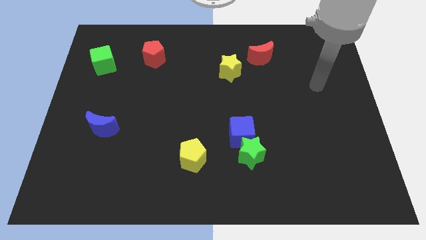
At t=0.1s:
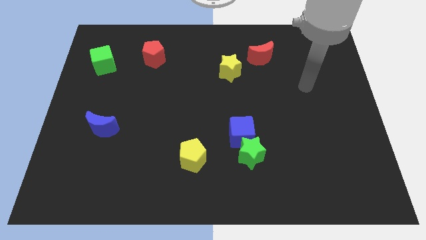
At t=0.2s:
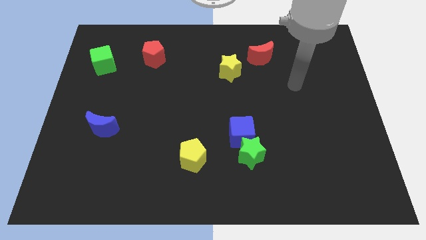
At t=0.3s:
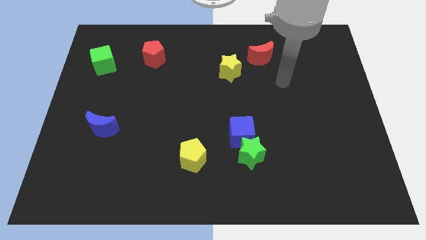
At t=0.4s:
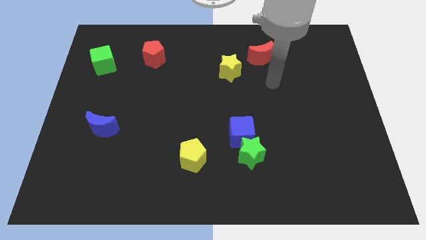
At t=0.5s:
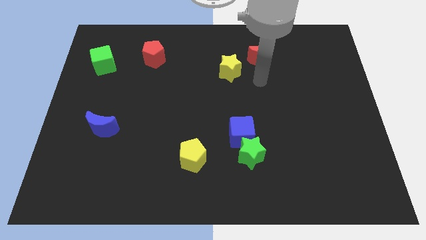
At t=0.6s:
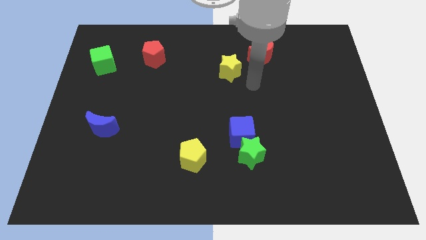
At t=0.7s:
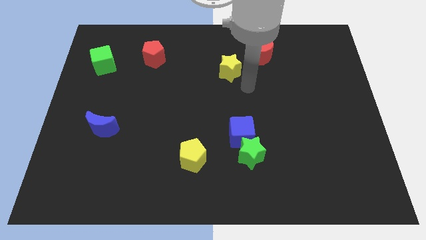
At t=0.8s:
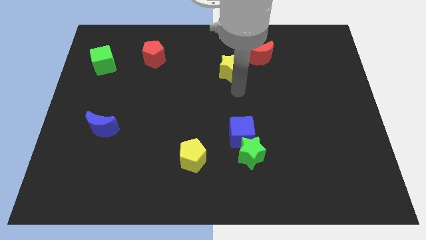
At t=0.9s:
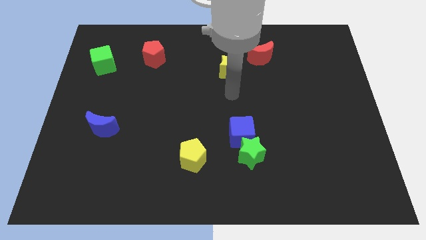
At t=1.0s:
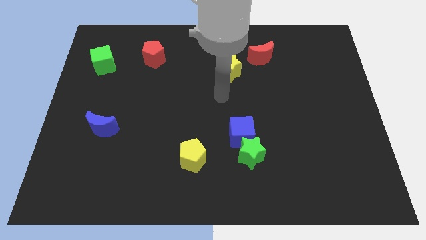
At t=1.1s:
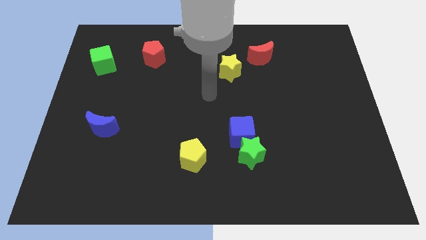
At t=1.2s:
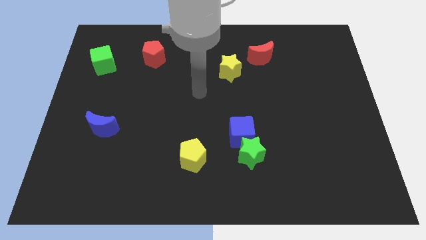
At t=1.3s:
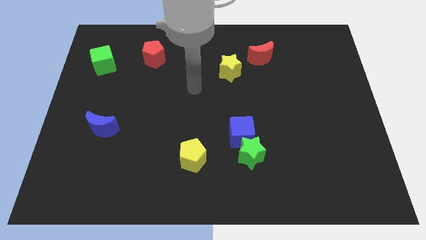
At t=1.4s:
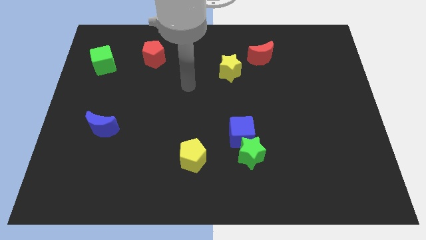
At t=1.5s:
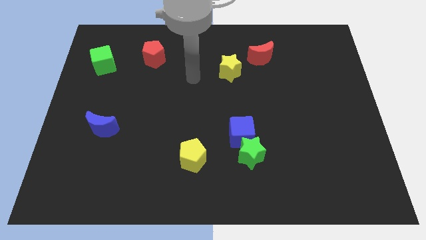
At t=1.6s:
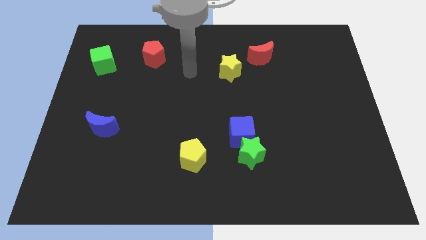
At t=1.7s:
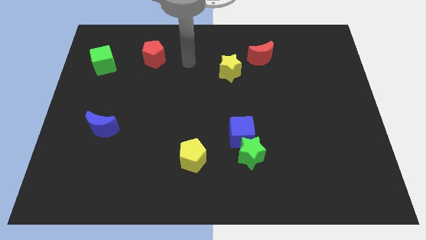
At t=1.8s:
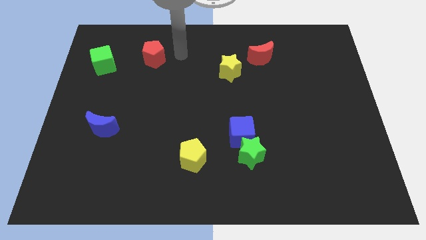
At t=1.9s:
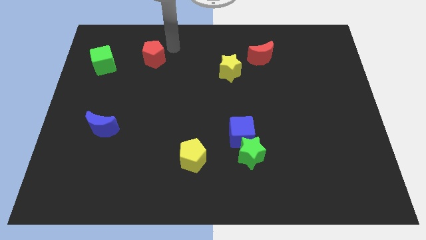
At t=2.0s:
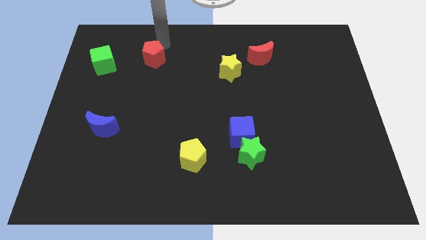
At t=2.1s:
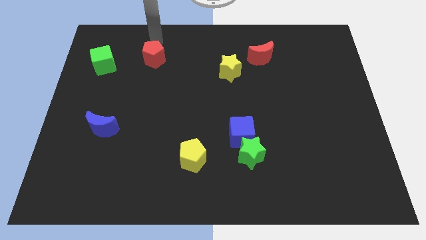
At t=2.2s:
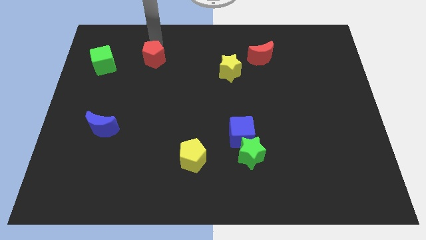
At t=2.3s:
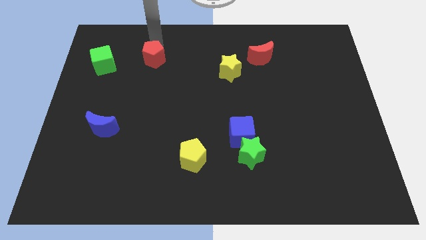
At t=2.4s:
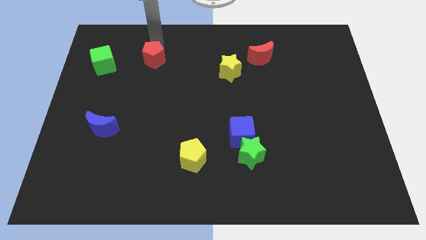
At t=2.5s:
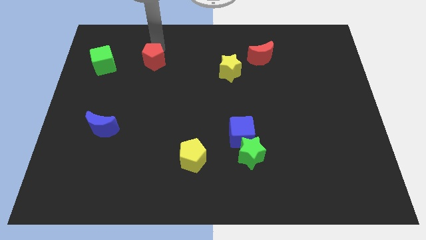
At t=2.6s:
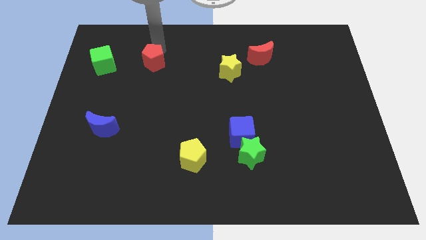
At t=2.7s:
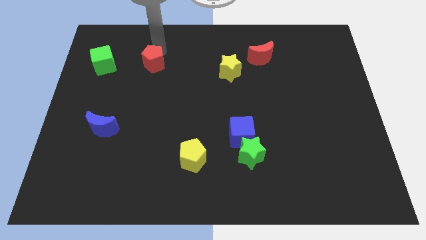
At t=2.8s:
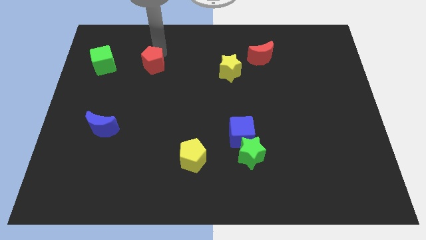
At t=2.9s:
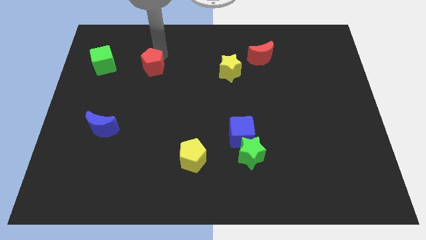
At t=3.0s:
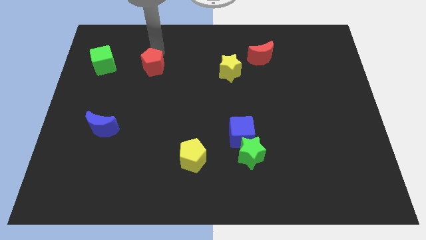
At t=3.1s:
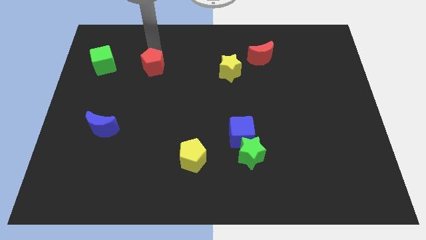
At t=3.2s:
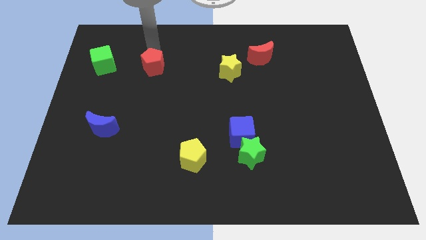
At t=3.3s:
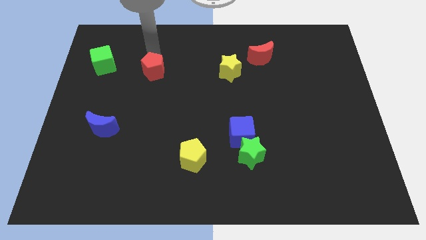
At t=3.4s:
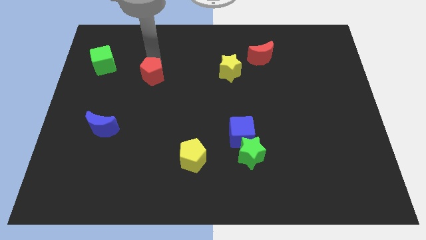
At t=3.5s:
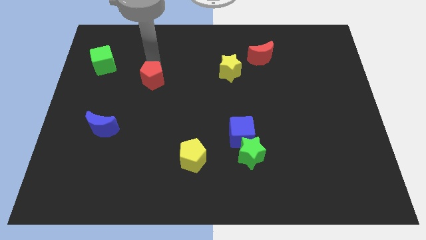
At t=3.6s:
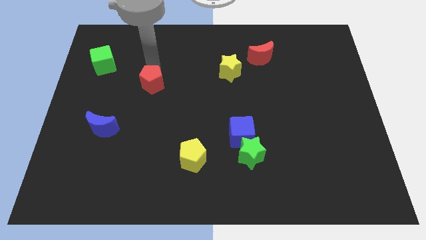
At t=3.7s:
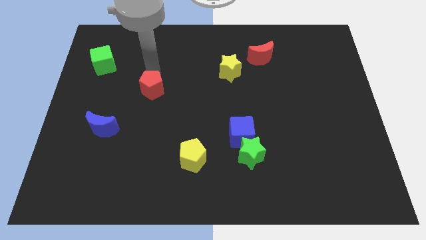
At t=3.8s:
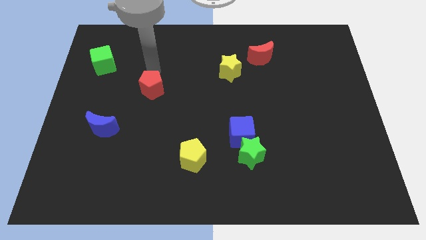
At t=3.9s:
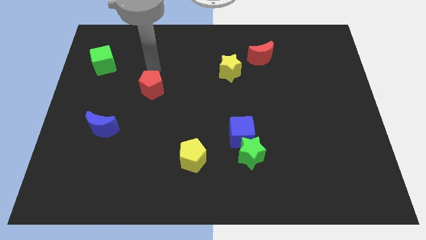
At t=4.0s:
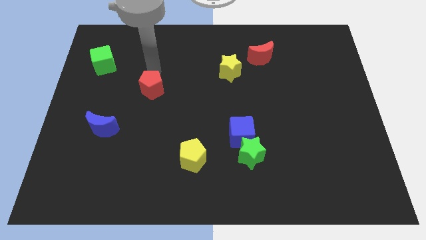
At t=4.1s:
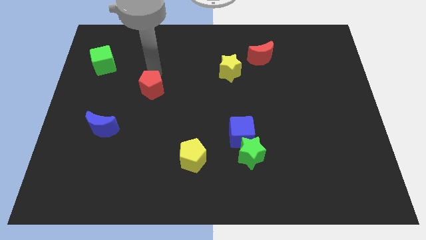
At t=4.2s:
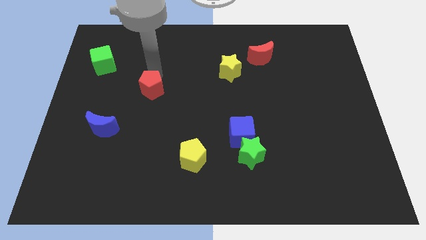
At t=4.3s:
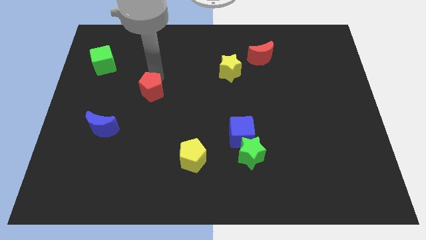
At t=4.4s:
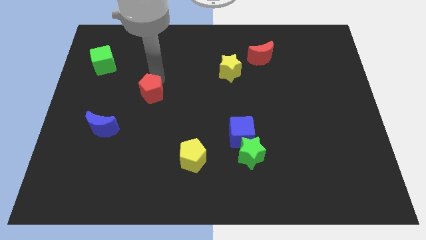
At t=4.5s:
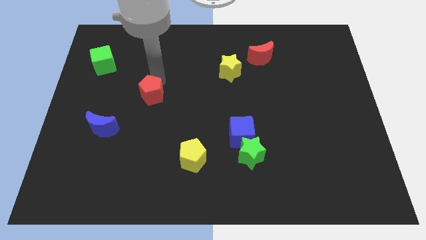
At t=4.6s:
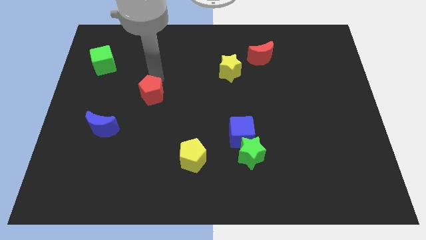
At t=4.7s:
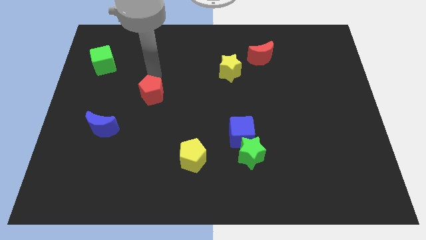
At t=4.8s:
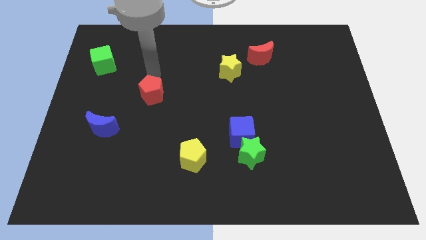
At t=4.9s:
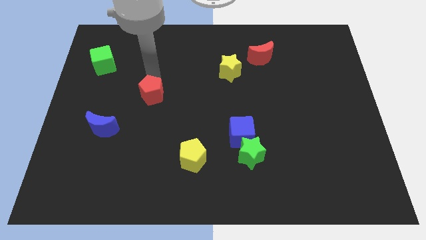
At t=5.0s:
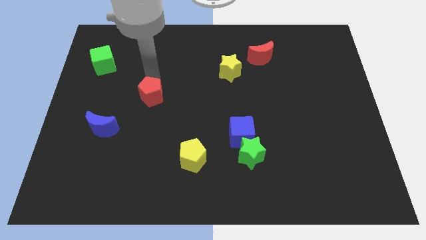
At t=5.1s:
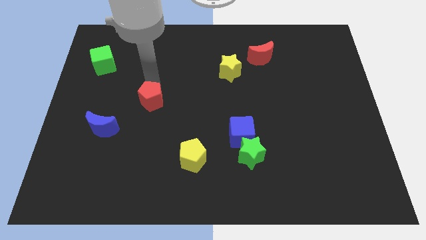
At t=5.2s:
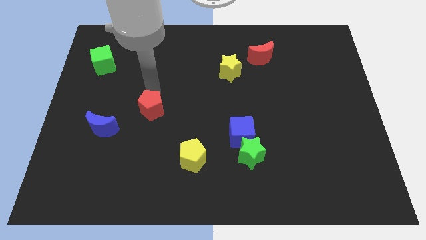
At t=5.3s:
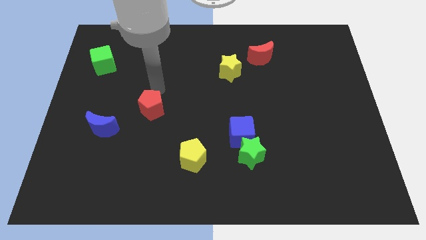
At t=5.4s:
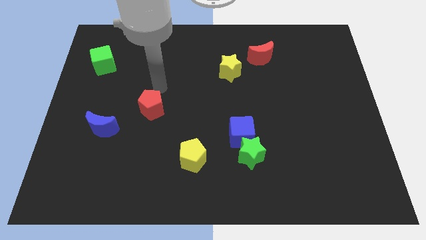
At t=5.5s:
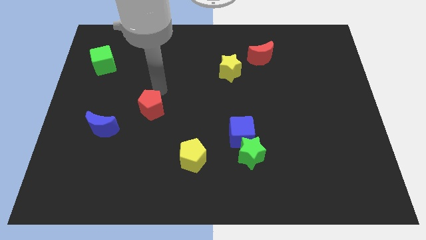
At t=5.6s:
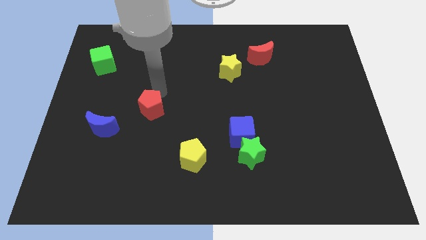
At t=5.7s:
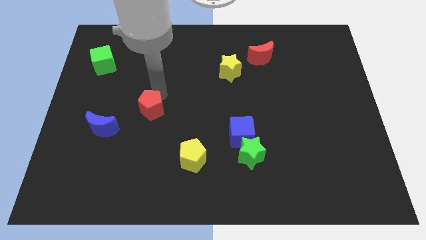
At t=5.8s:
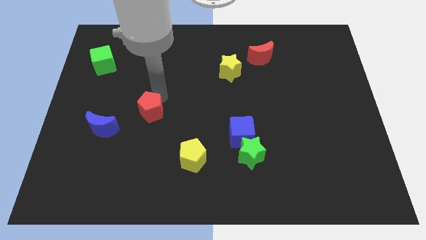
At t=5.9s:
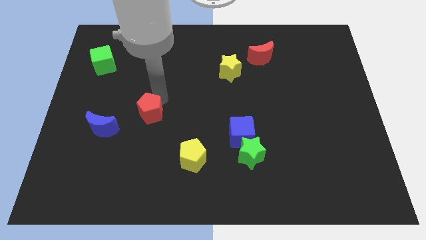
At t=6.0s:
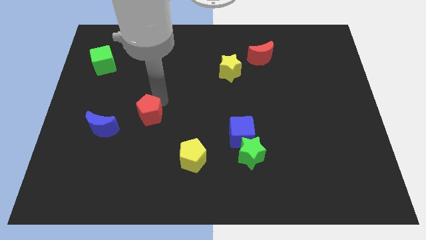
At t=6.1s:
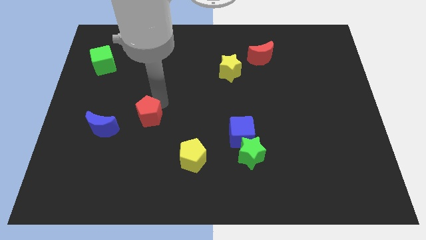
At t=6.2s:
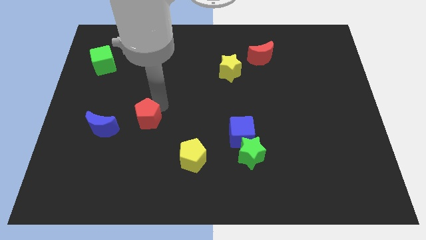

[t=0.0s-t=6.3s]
push the red pentagon downwards

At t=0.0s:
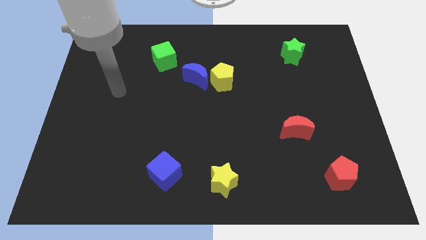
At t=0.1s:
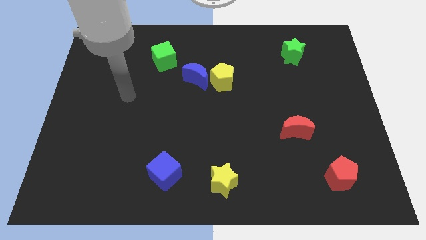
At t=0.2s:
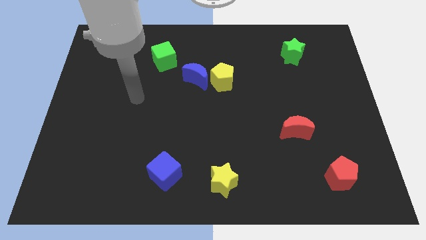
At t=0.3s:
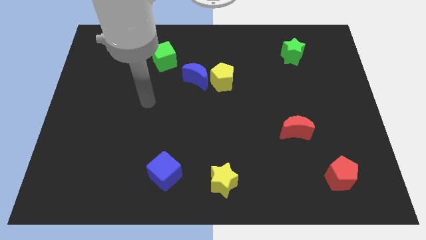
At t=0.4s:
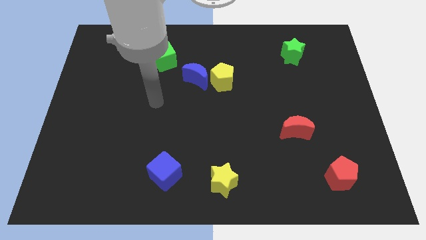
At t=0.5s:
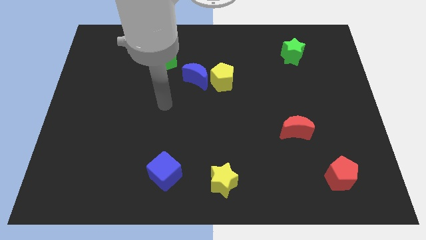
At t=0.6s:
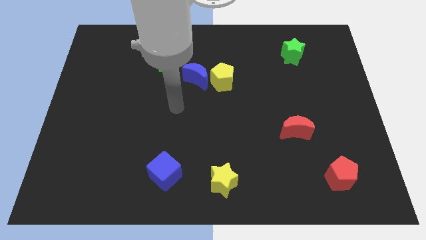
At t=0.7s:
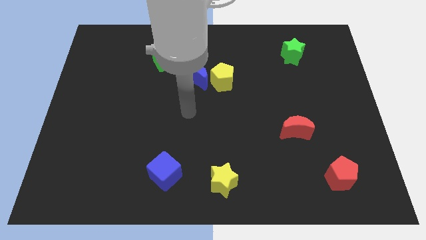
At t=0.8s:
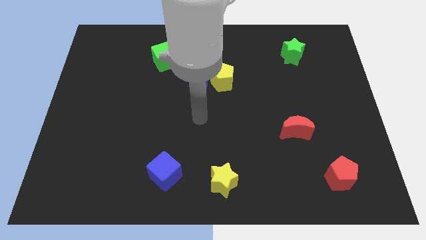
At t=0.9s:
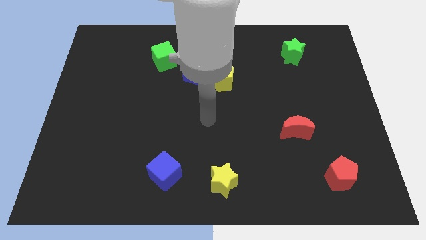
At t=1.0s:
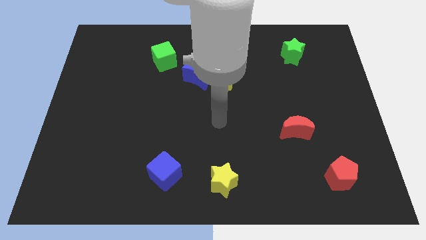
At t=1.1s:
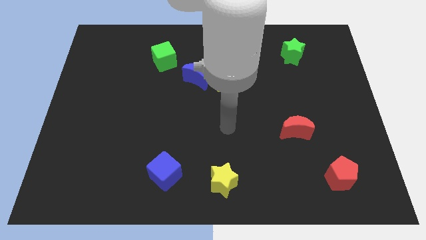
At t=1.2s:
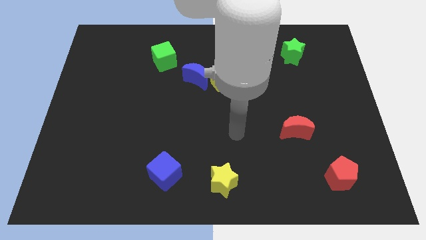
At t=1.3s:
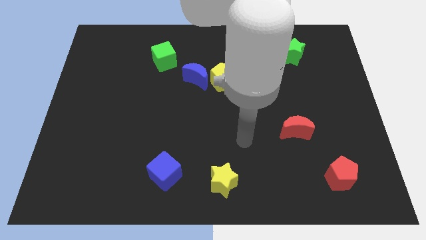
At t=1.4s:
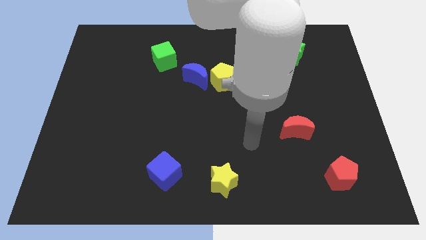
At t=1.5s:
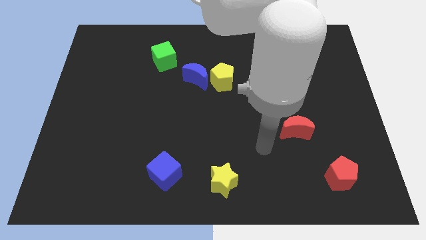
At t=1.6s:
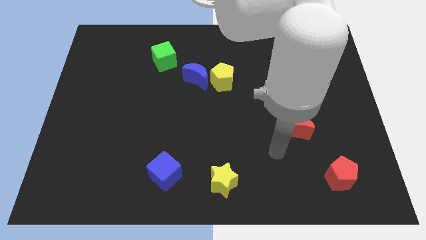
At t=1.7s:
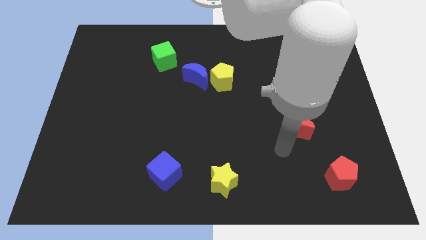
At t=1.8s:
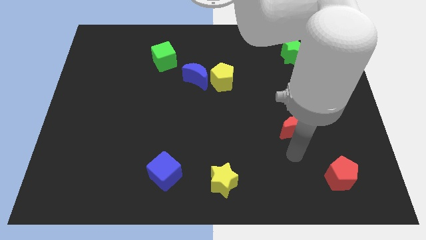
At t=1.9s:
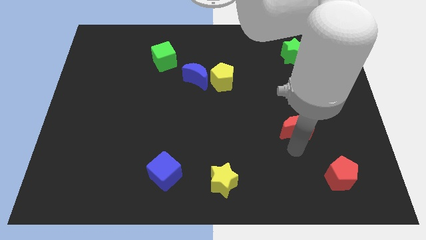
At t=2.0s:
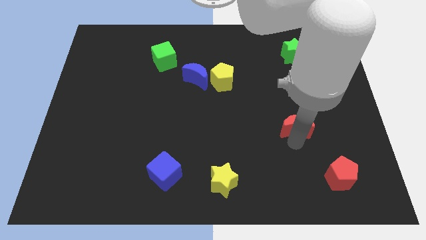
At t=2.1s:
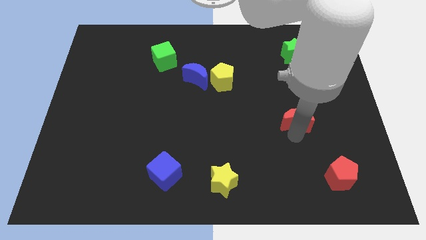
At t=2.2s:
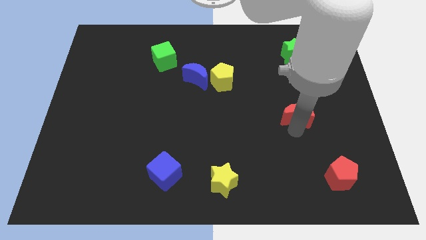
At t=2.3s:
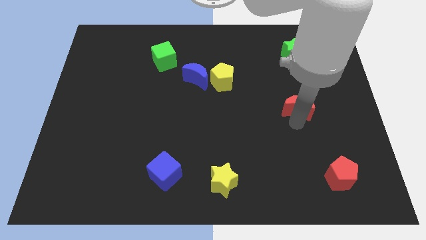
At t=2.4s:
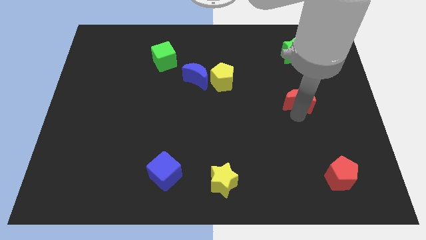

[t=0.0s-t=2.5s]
slightly slide the red moon up
